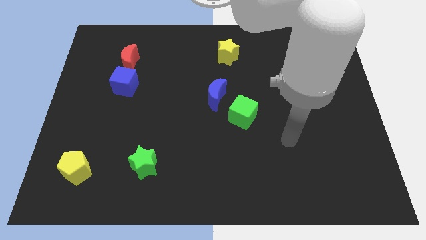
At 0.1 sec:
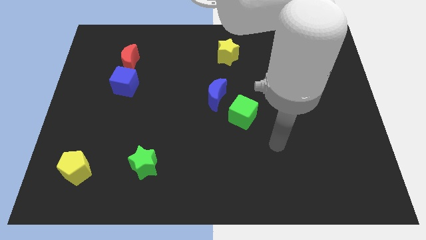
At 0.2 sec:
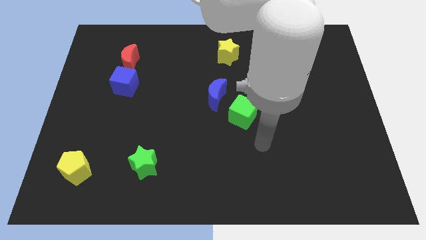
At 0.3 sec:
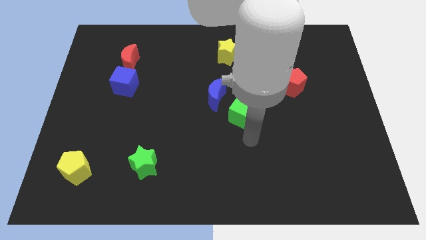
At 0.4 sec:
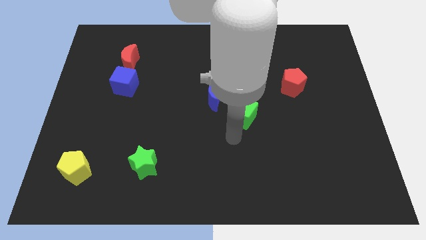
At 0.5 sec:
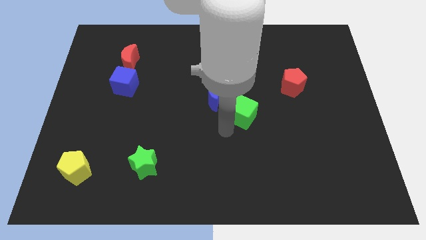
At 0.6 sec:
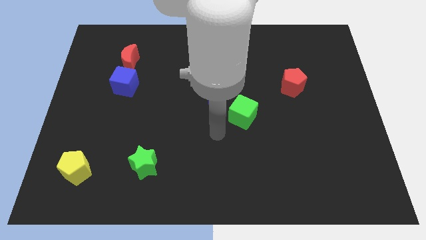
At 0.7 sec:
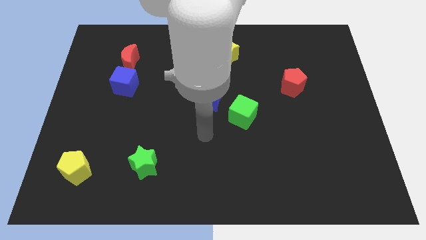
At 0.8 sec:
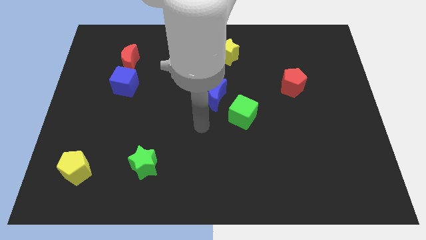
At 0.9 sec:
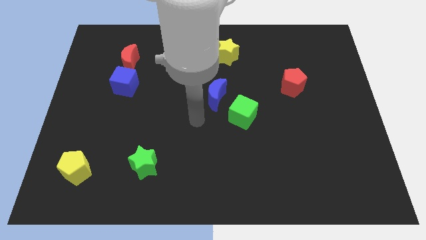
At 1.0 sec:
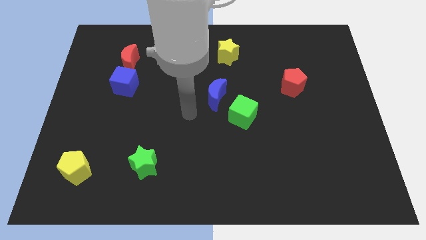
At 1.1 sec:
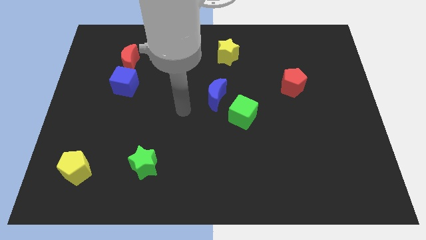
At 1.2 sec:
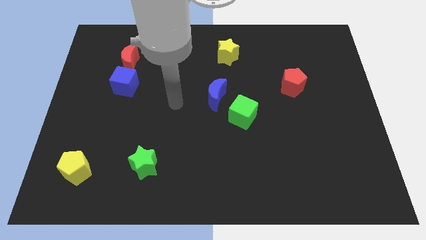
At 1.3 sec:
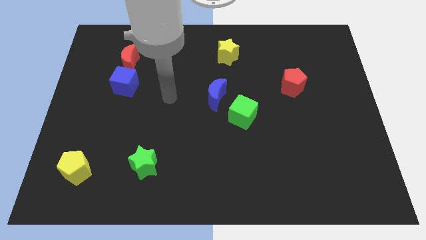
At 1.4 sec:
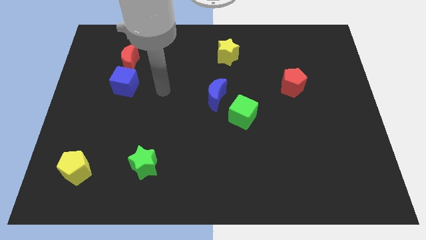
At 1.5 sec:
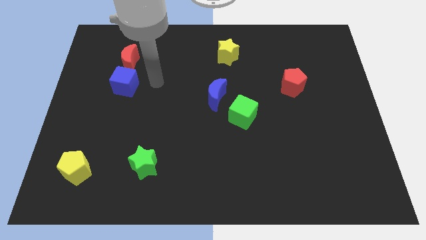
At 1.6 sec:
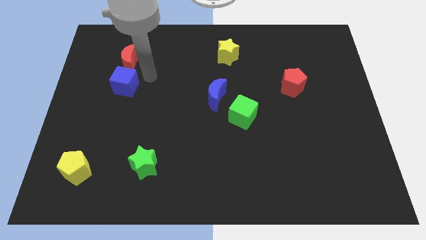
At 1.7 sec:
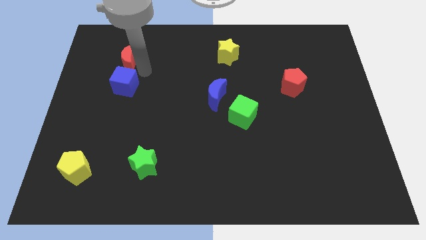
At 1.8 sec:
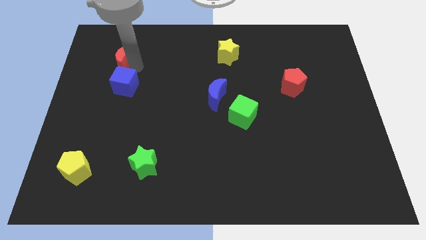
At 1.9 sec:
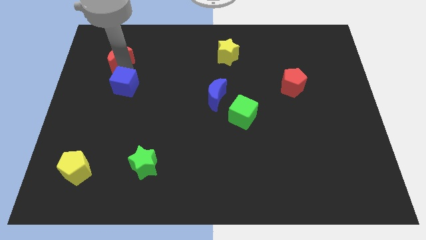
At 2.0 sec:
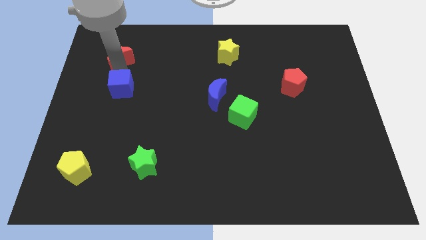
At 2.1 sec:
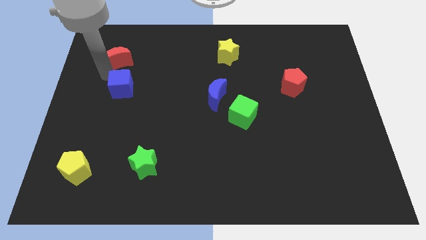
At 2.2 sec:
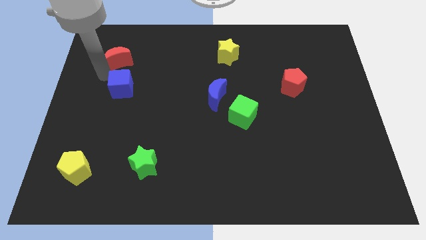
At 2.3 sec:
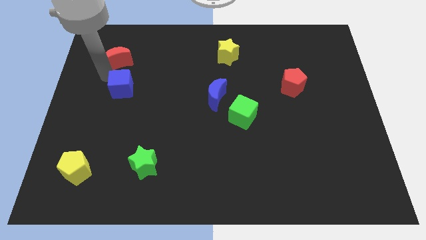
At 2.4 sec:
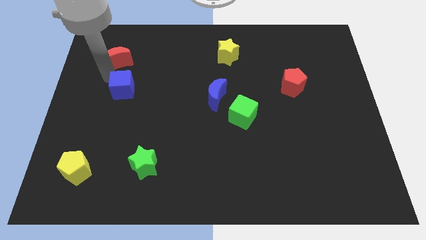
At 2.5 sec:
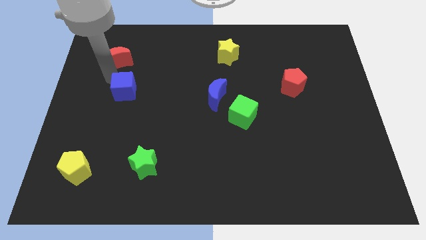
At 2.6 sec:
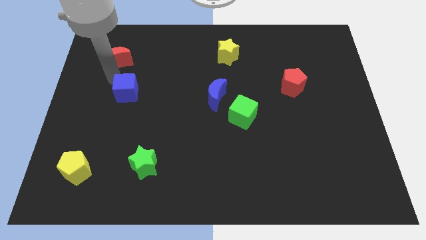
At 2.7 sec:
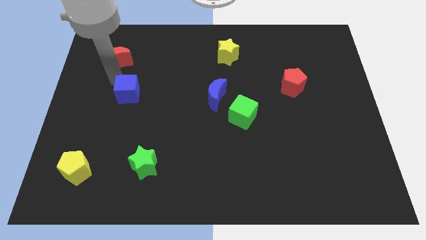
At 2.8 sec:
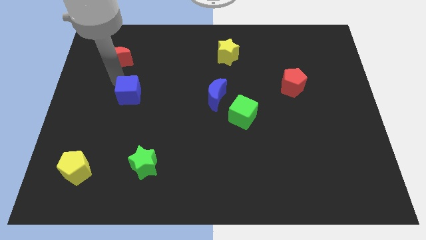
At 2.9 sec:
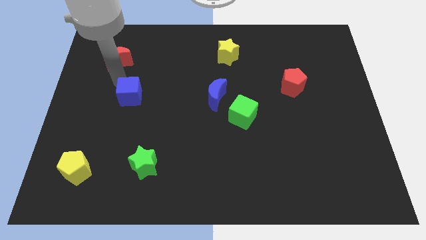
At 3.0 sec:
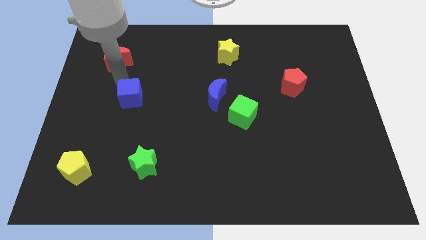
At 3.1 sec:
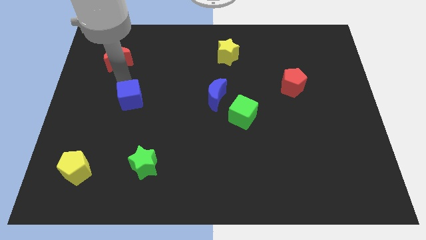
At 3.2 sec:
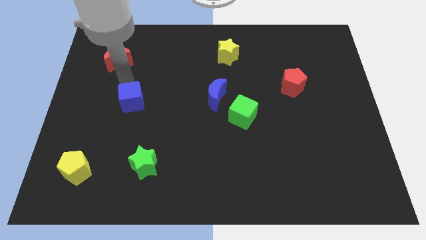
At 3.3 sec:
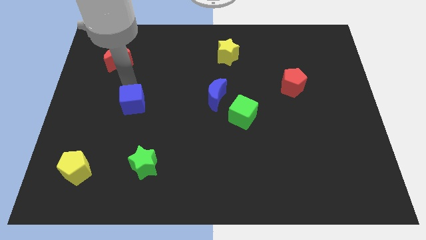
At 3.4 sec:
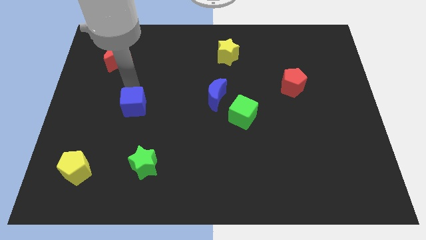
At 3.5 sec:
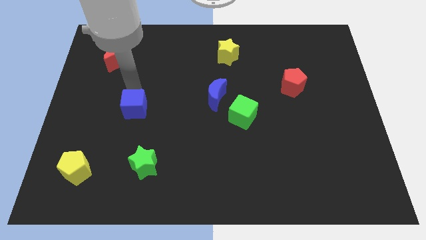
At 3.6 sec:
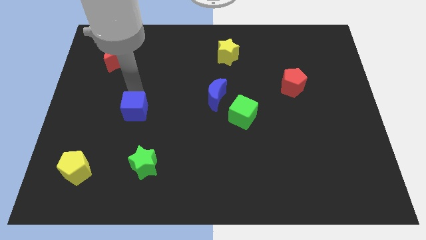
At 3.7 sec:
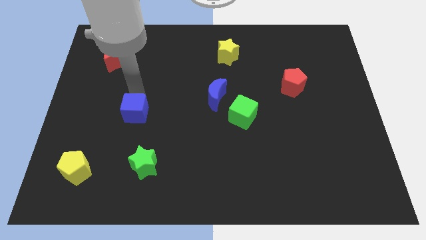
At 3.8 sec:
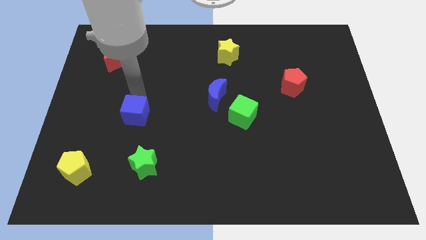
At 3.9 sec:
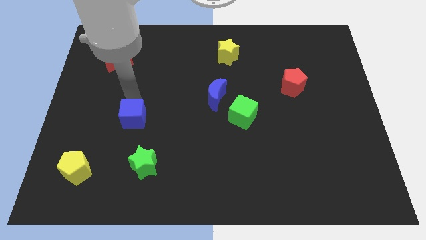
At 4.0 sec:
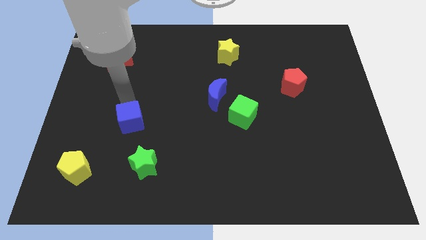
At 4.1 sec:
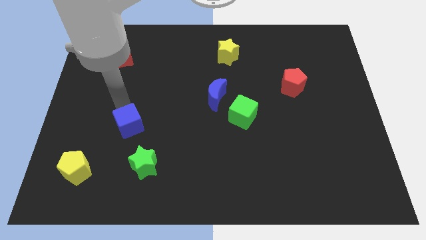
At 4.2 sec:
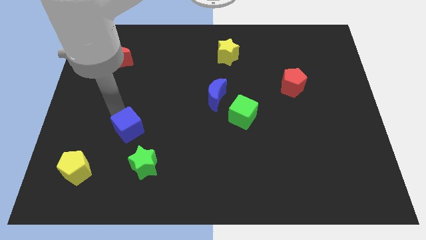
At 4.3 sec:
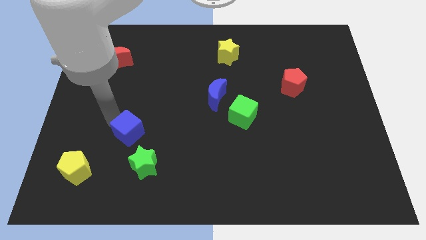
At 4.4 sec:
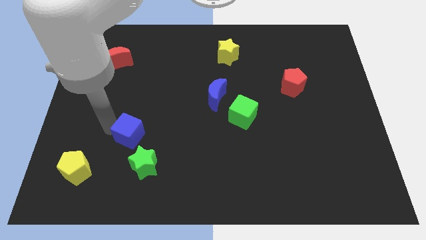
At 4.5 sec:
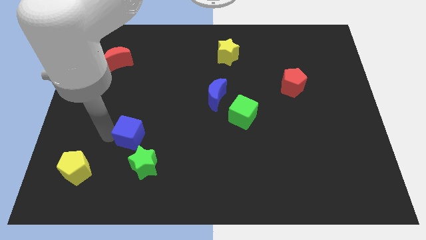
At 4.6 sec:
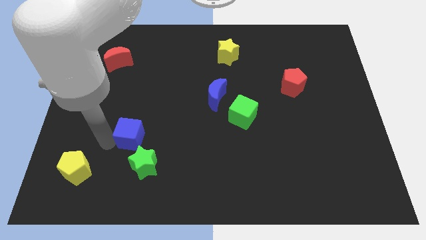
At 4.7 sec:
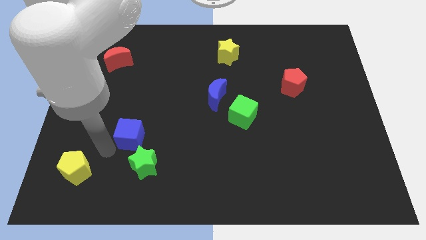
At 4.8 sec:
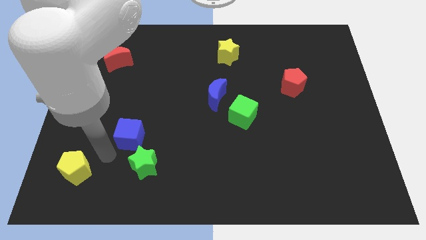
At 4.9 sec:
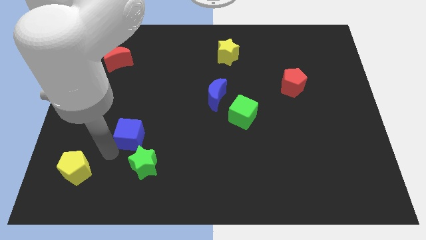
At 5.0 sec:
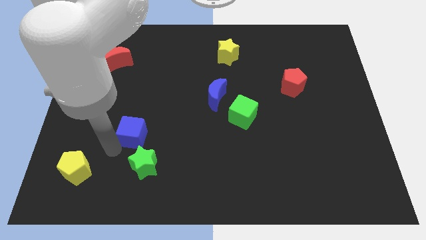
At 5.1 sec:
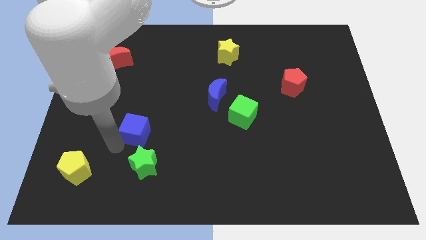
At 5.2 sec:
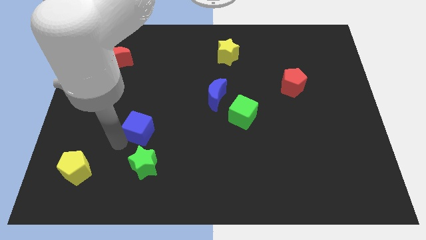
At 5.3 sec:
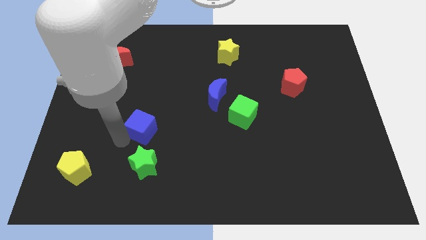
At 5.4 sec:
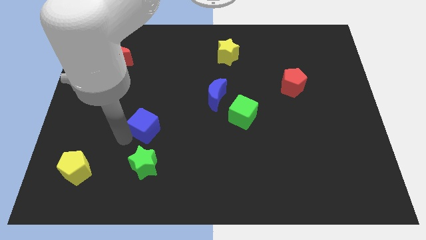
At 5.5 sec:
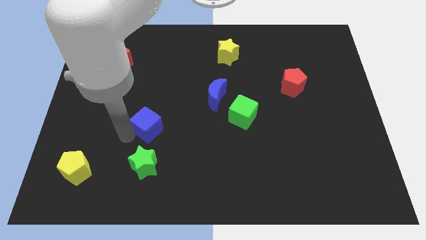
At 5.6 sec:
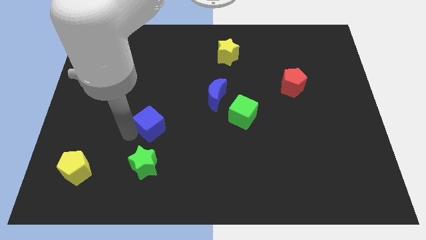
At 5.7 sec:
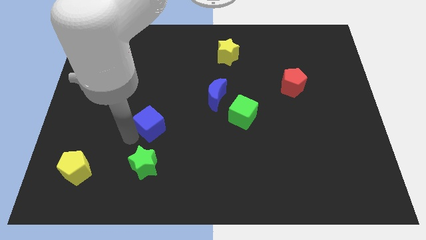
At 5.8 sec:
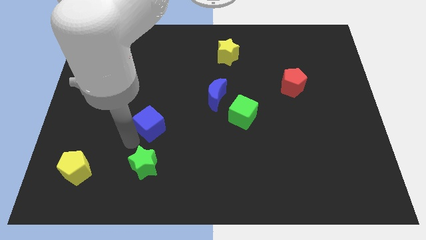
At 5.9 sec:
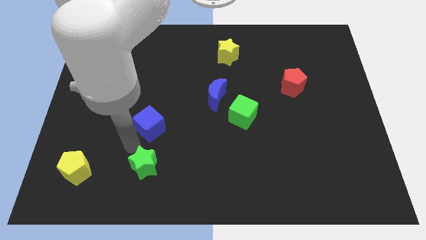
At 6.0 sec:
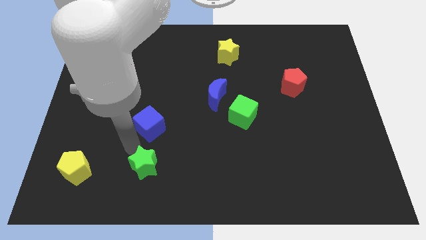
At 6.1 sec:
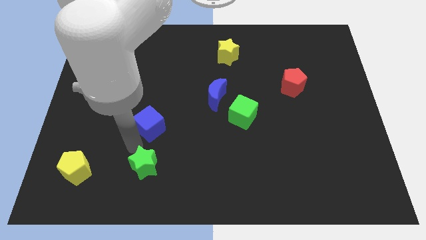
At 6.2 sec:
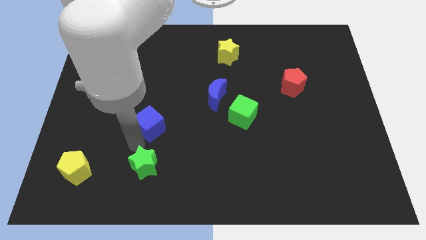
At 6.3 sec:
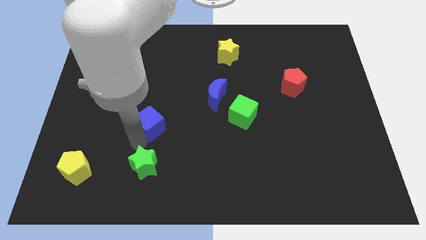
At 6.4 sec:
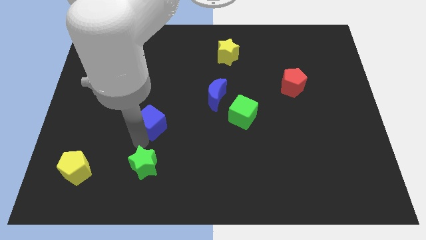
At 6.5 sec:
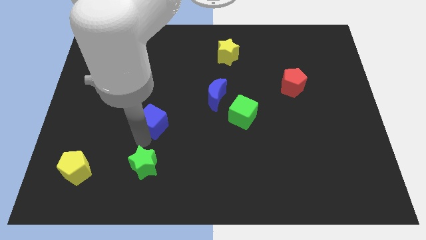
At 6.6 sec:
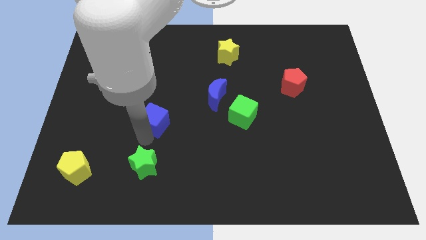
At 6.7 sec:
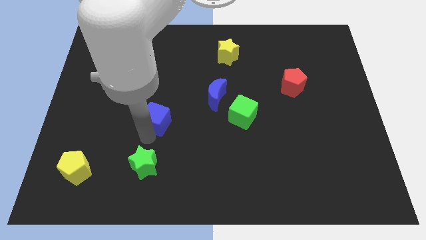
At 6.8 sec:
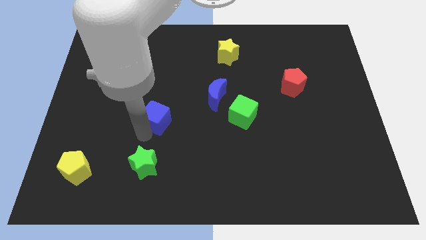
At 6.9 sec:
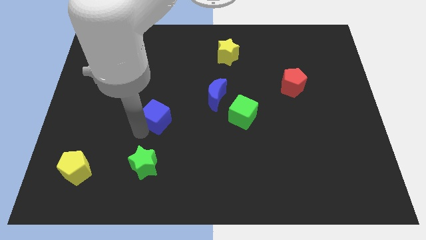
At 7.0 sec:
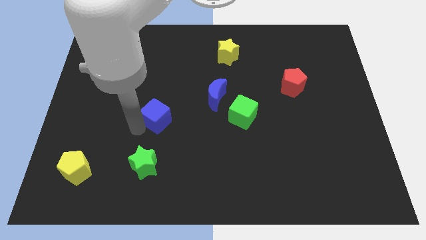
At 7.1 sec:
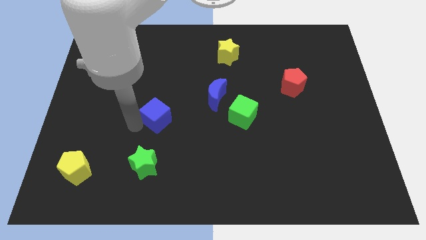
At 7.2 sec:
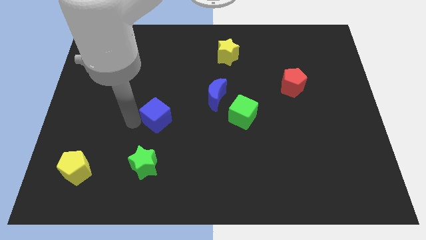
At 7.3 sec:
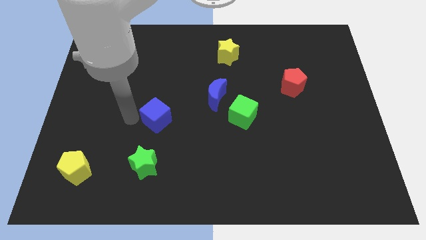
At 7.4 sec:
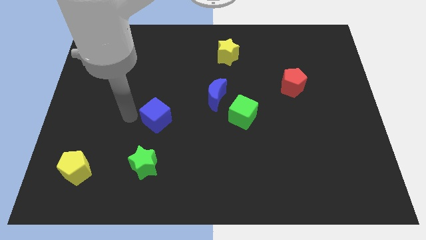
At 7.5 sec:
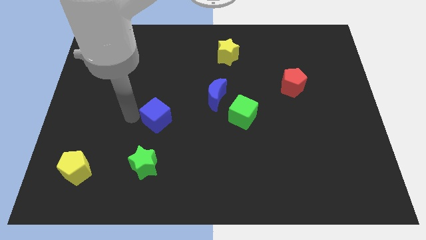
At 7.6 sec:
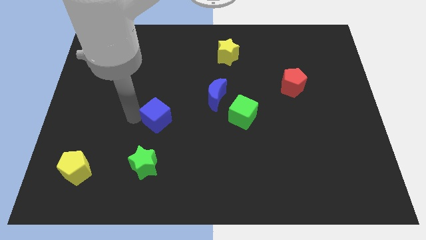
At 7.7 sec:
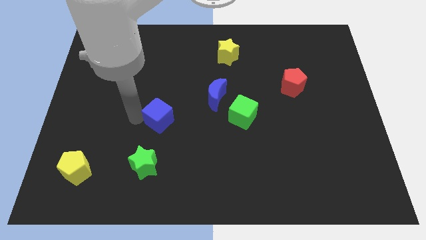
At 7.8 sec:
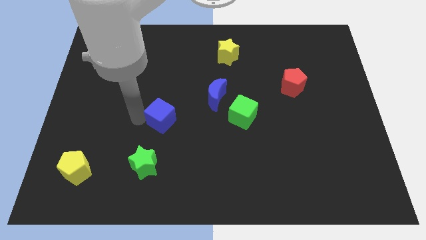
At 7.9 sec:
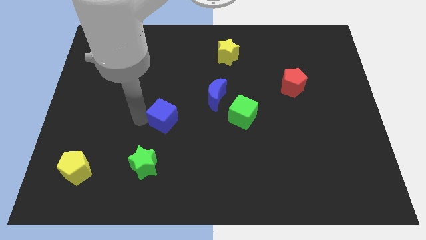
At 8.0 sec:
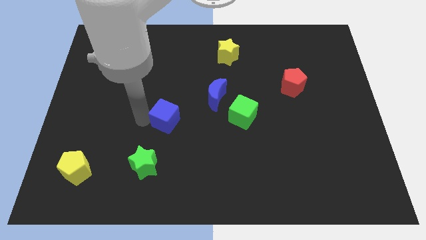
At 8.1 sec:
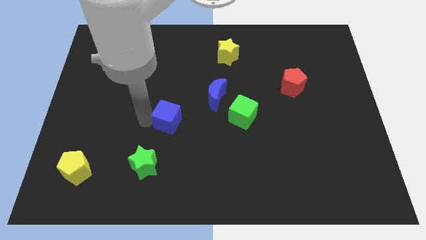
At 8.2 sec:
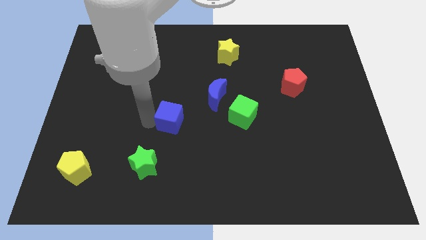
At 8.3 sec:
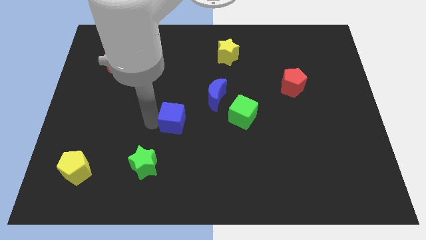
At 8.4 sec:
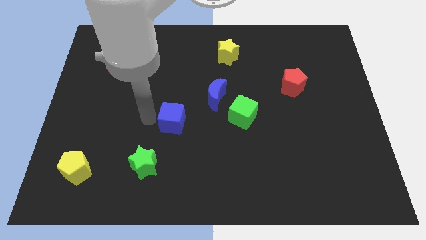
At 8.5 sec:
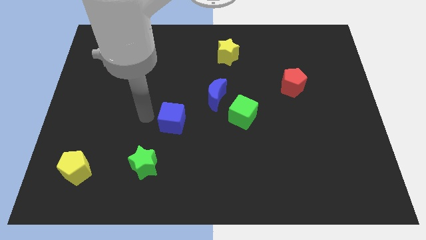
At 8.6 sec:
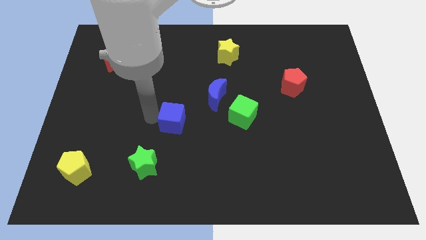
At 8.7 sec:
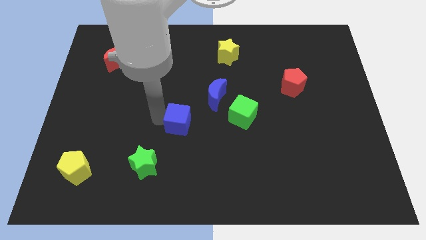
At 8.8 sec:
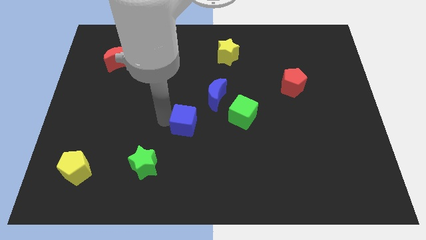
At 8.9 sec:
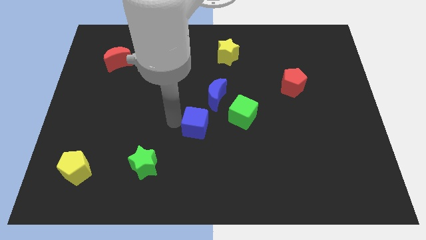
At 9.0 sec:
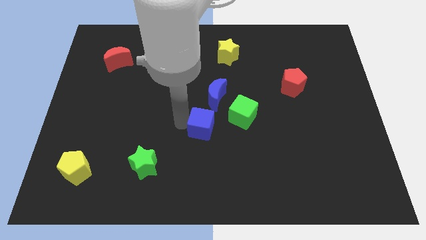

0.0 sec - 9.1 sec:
put the blue cube diagonally down and to the left of the green cube
